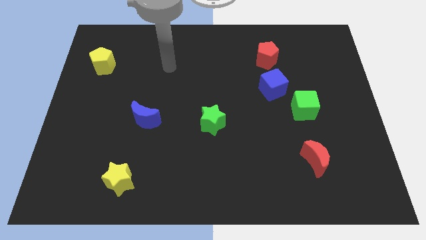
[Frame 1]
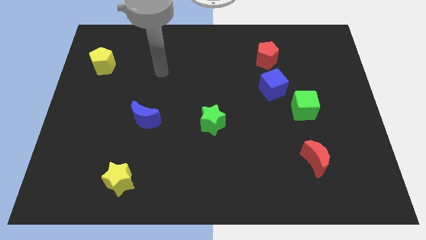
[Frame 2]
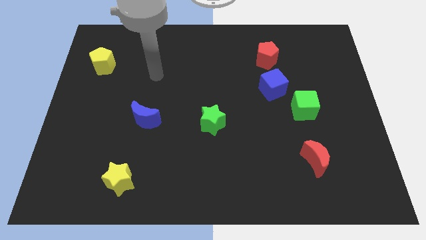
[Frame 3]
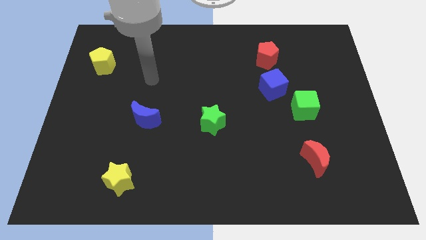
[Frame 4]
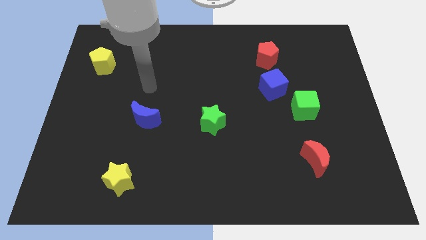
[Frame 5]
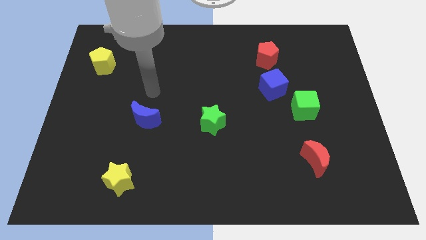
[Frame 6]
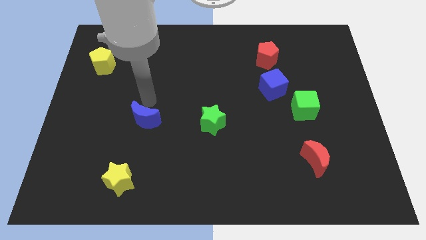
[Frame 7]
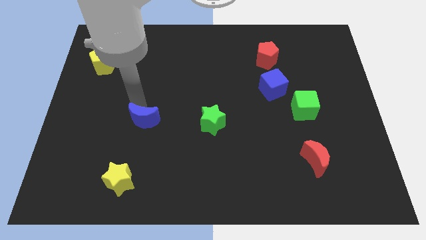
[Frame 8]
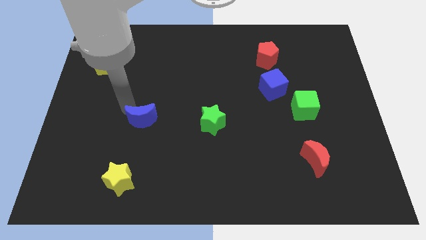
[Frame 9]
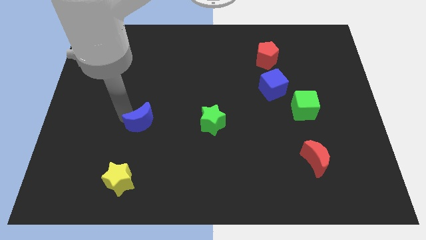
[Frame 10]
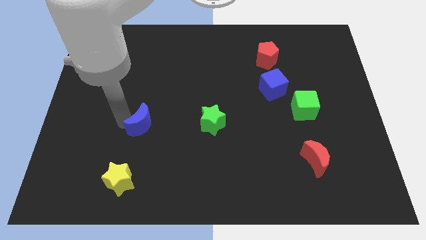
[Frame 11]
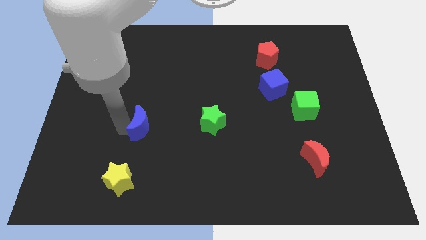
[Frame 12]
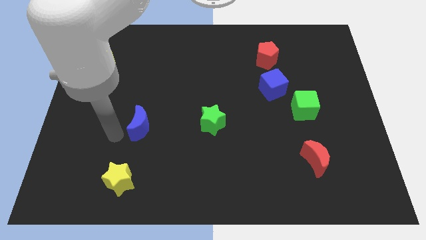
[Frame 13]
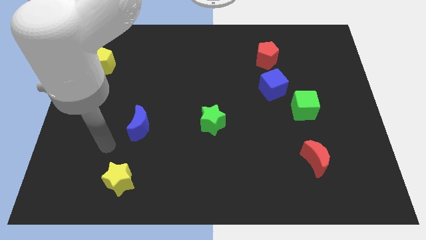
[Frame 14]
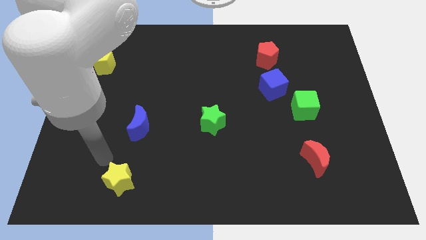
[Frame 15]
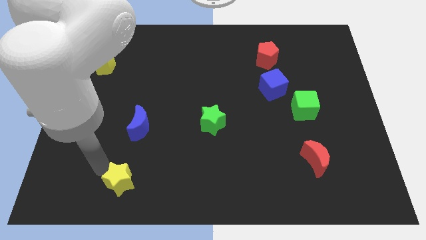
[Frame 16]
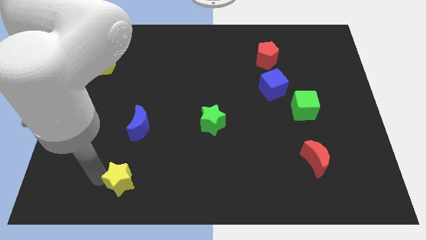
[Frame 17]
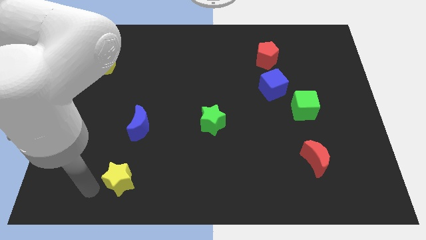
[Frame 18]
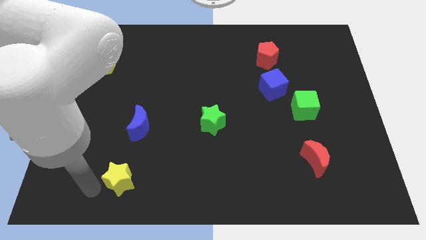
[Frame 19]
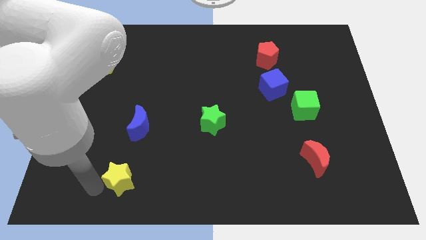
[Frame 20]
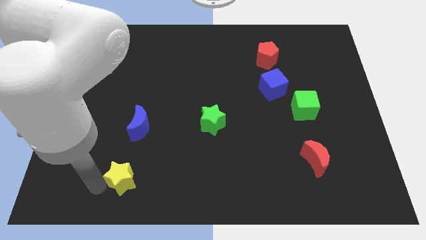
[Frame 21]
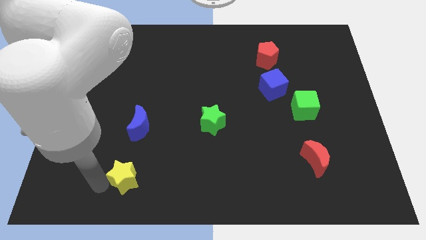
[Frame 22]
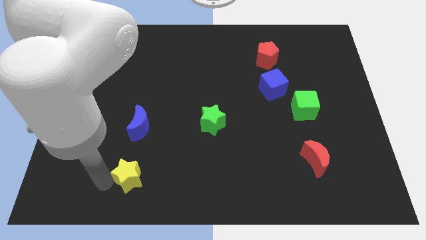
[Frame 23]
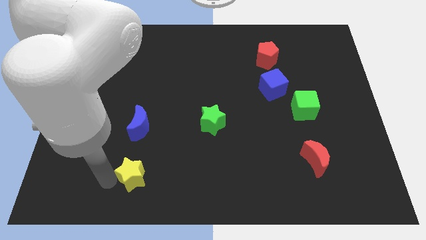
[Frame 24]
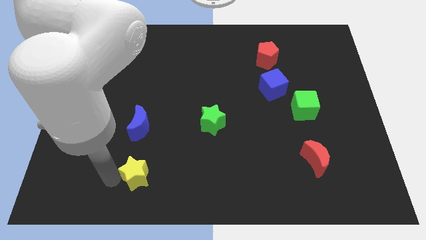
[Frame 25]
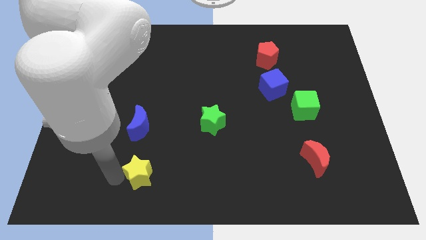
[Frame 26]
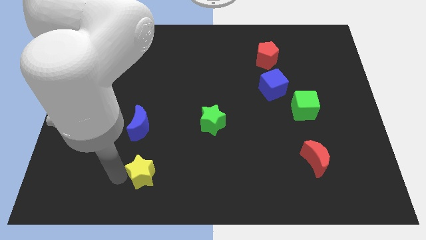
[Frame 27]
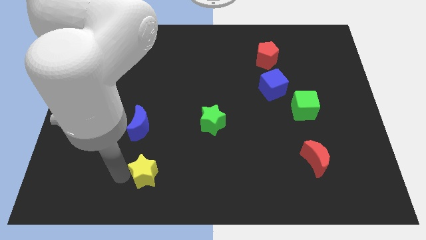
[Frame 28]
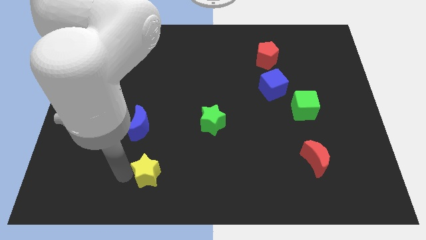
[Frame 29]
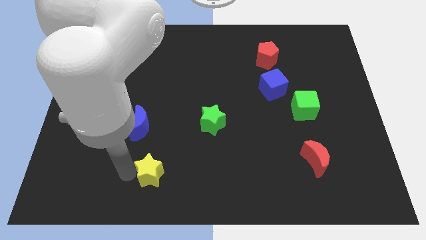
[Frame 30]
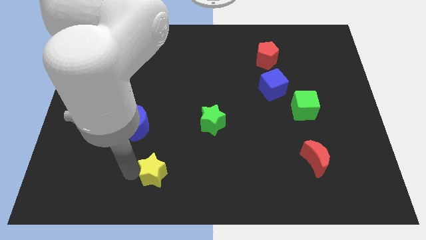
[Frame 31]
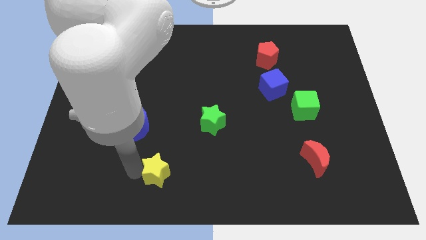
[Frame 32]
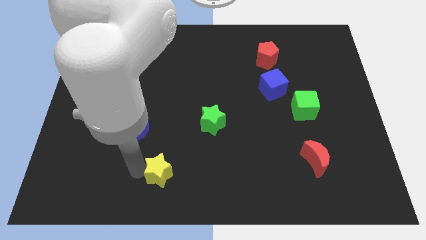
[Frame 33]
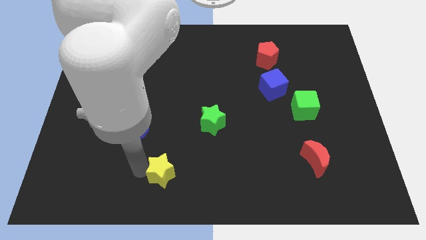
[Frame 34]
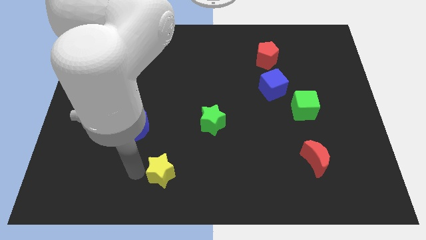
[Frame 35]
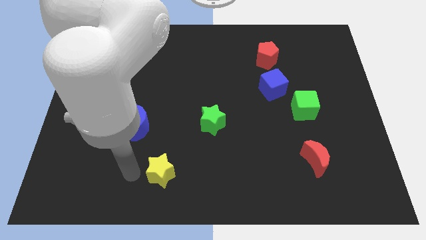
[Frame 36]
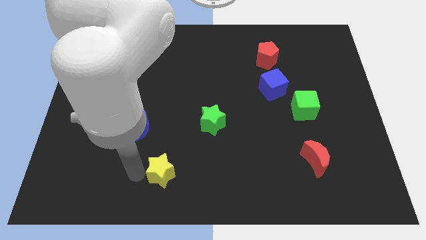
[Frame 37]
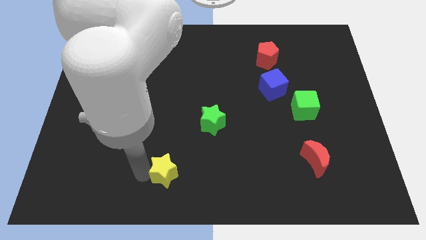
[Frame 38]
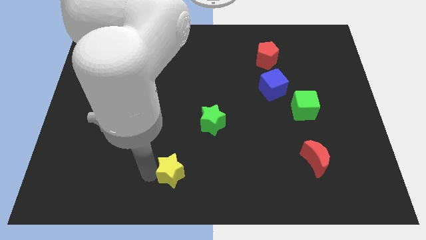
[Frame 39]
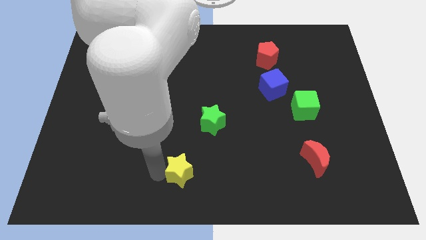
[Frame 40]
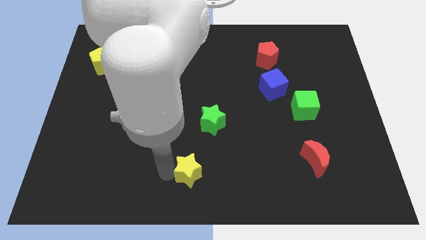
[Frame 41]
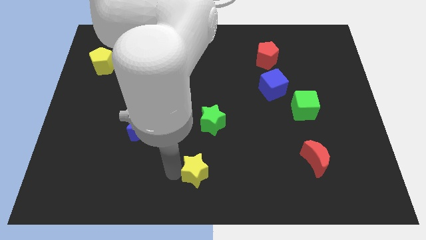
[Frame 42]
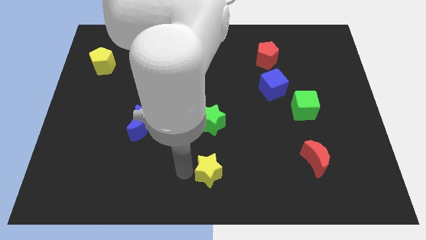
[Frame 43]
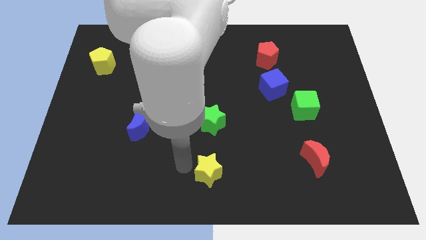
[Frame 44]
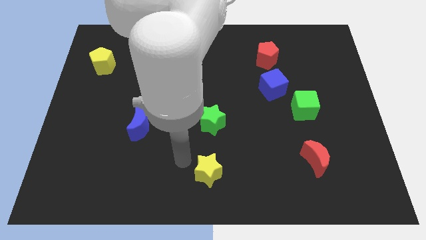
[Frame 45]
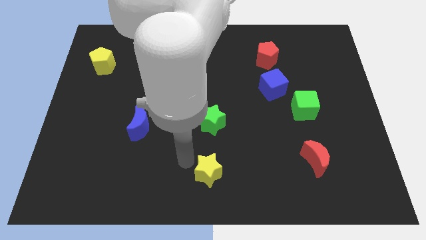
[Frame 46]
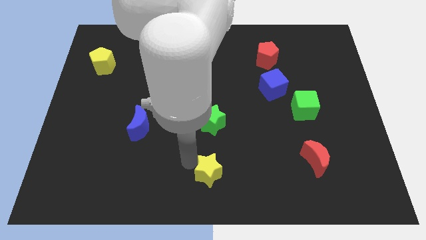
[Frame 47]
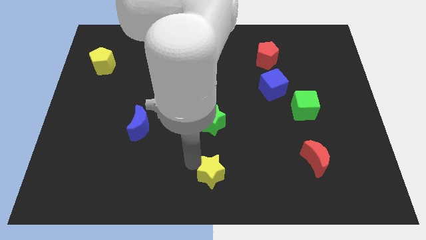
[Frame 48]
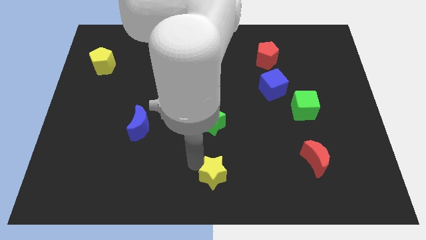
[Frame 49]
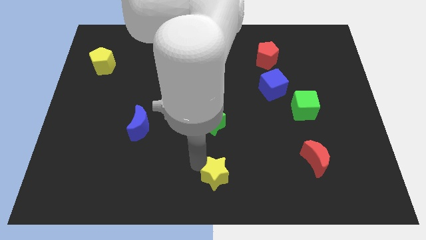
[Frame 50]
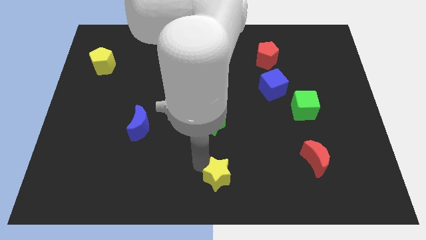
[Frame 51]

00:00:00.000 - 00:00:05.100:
slide the yellow star right

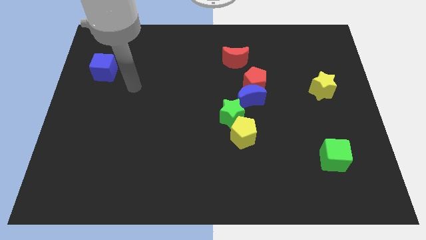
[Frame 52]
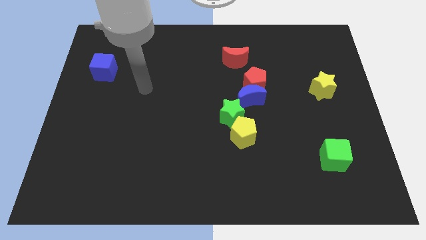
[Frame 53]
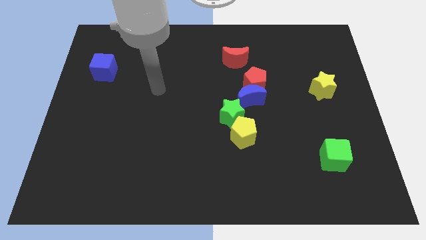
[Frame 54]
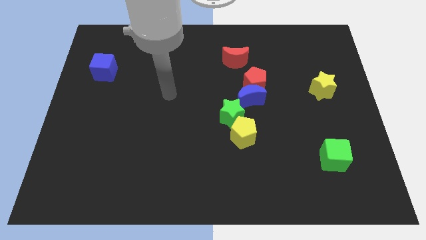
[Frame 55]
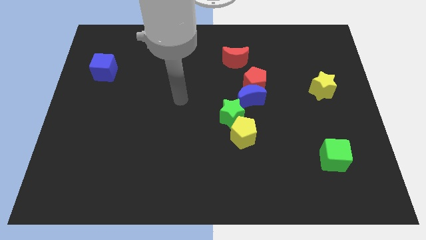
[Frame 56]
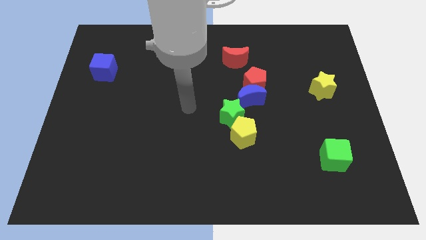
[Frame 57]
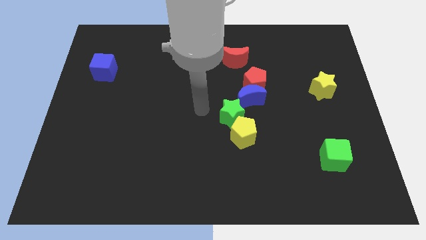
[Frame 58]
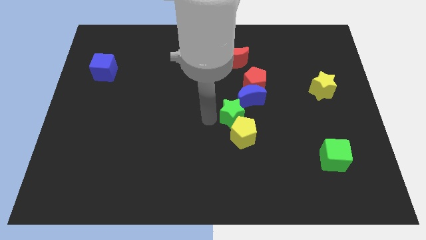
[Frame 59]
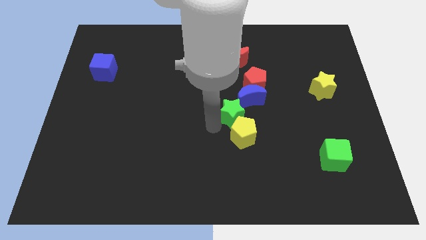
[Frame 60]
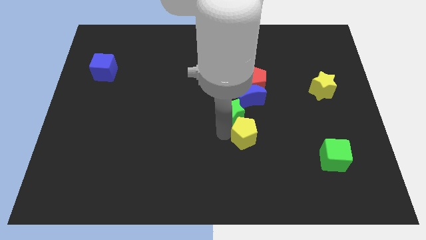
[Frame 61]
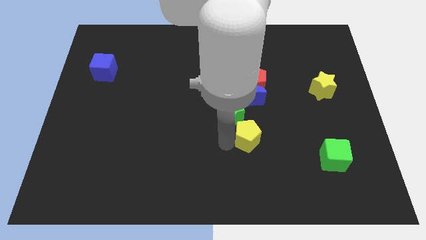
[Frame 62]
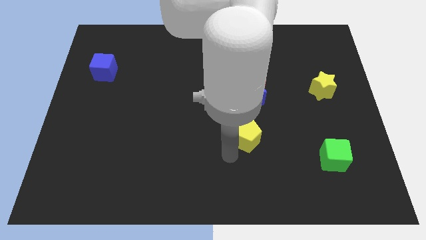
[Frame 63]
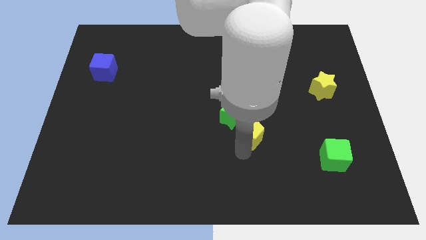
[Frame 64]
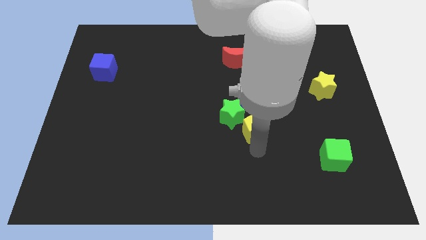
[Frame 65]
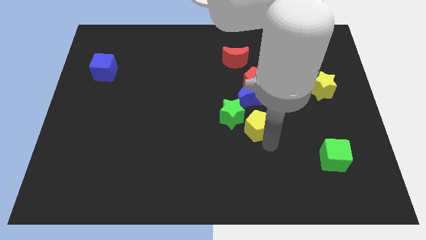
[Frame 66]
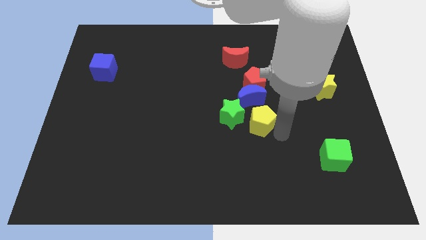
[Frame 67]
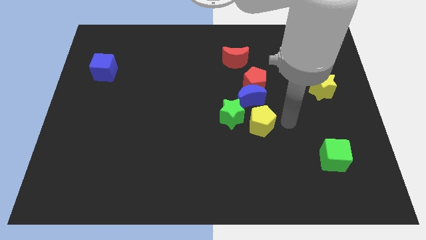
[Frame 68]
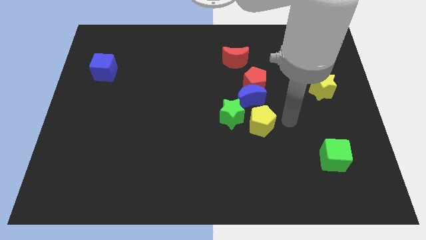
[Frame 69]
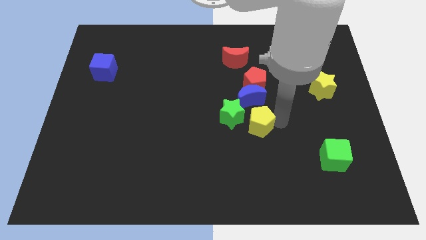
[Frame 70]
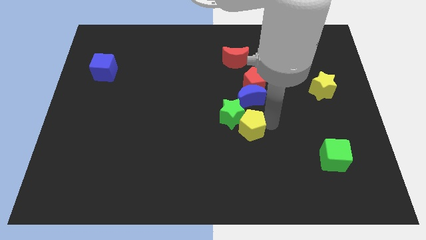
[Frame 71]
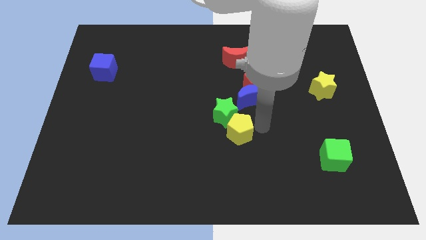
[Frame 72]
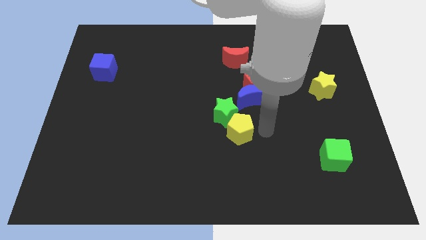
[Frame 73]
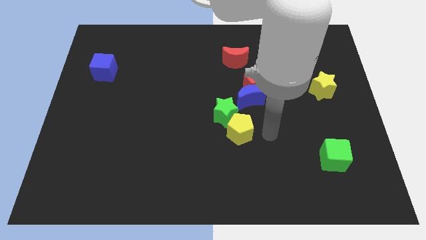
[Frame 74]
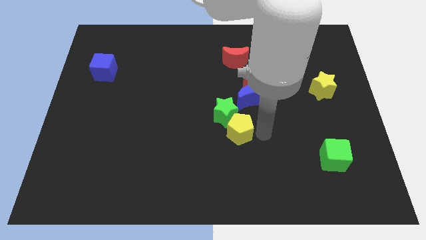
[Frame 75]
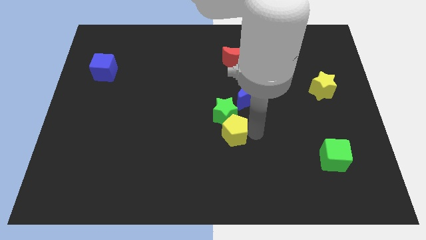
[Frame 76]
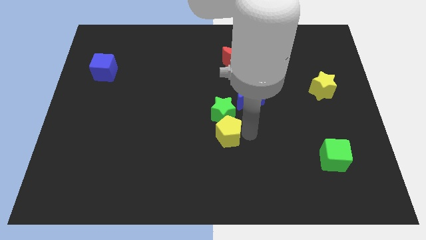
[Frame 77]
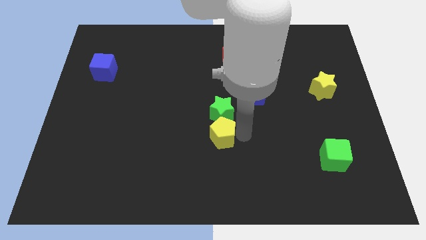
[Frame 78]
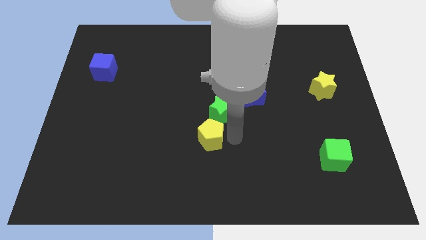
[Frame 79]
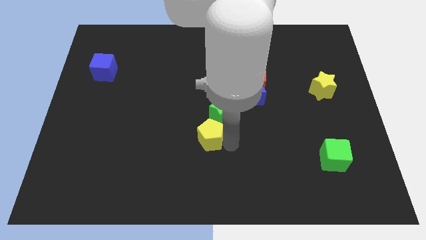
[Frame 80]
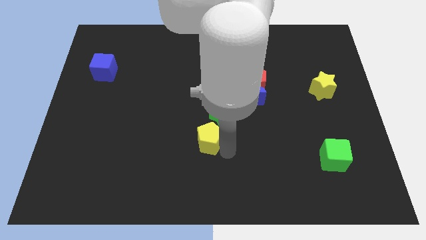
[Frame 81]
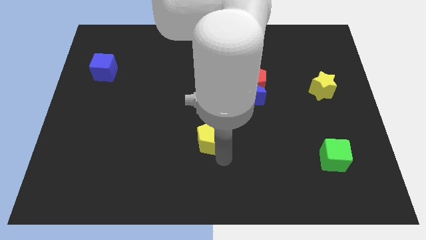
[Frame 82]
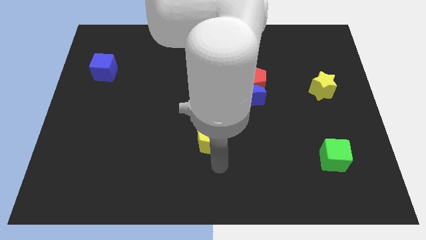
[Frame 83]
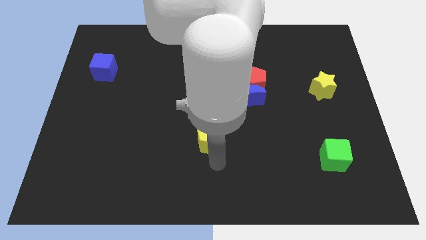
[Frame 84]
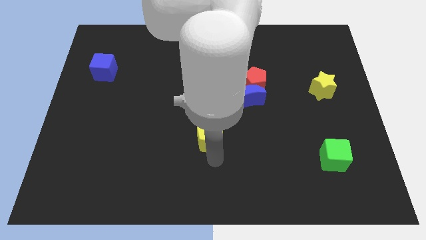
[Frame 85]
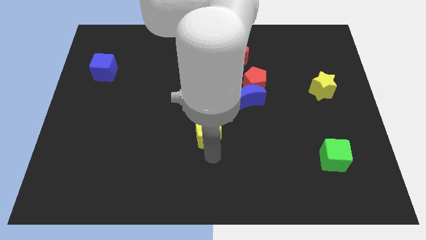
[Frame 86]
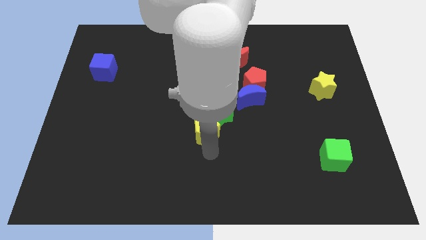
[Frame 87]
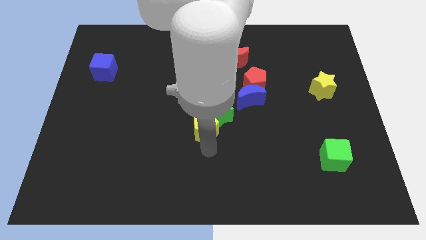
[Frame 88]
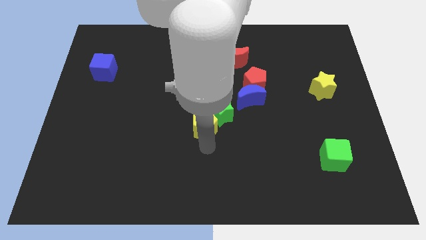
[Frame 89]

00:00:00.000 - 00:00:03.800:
slightly push the yellow pentagon upwards and left diagonally
